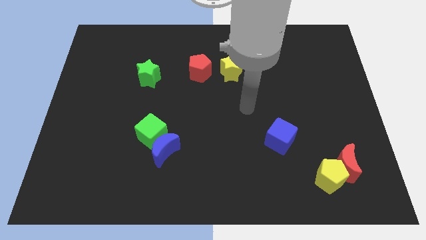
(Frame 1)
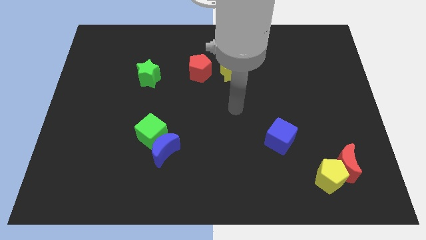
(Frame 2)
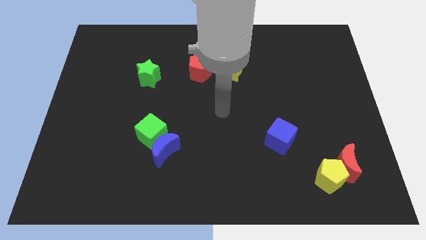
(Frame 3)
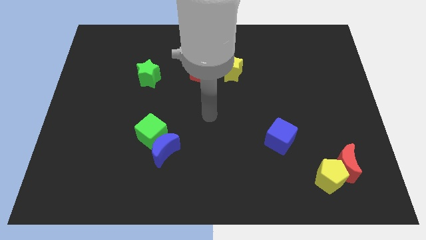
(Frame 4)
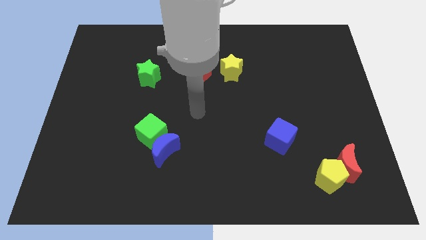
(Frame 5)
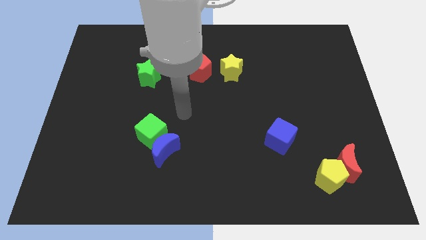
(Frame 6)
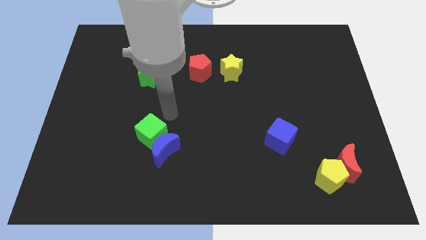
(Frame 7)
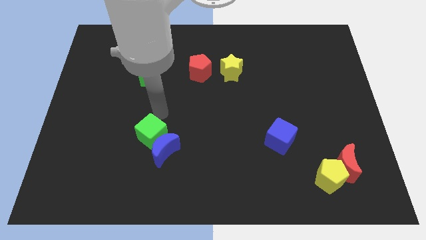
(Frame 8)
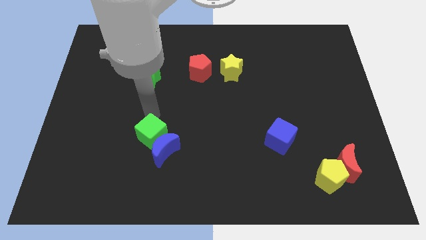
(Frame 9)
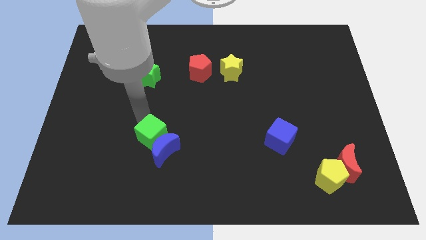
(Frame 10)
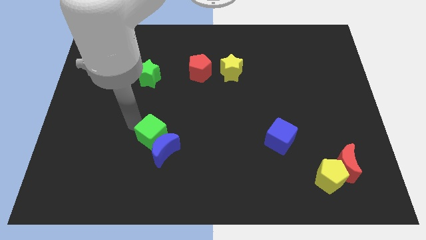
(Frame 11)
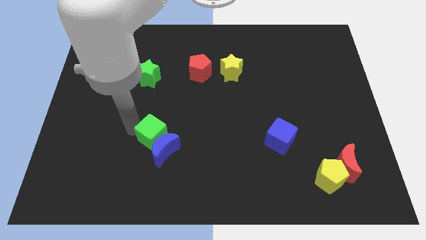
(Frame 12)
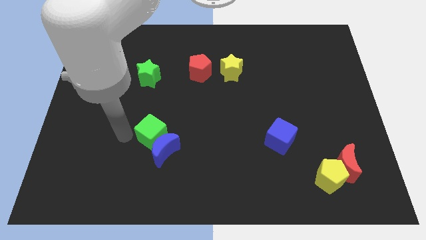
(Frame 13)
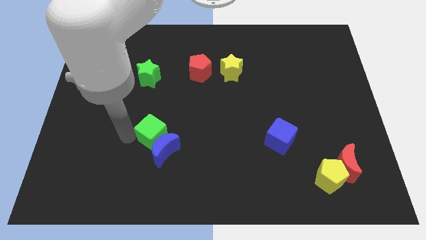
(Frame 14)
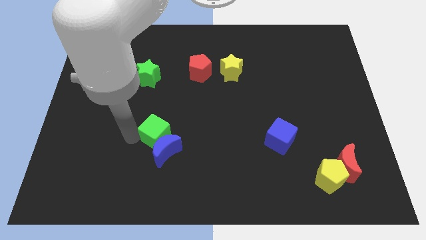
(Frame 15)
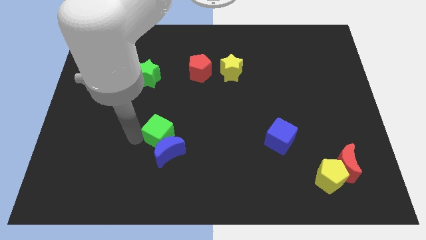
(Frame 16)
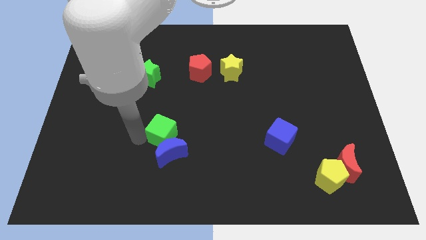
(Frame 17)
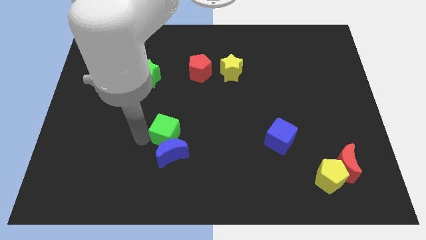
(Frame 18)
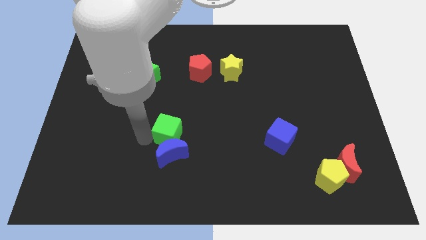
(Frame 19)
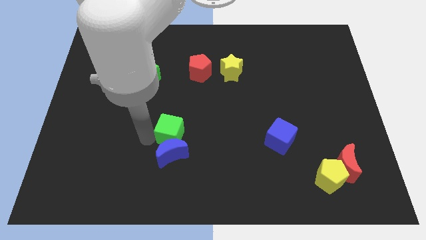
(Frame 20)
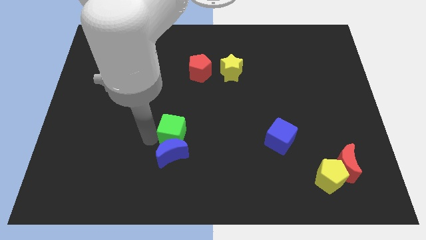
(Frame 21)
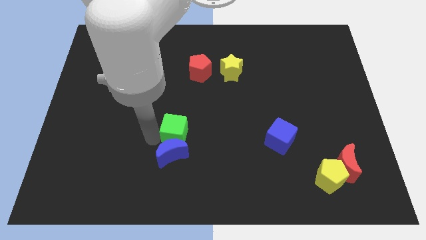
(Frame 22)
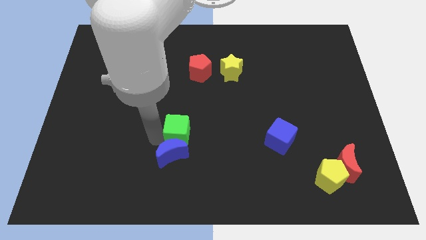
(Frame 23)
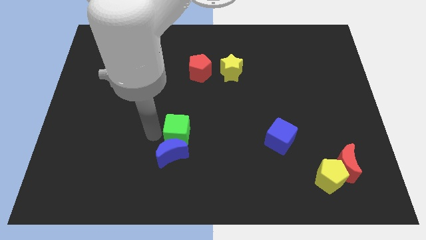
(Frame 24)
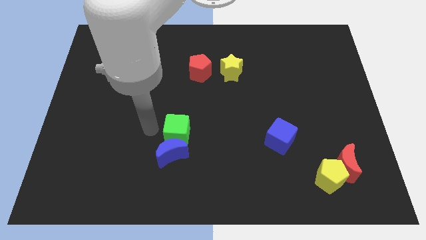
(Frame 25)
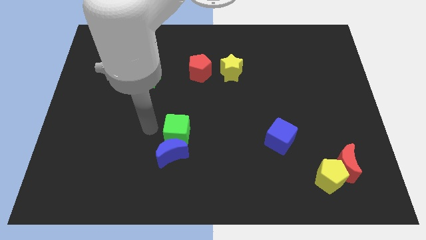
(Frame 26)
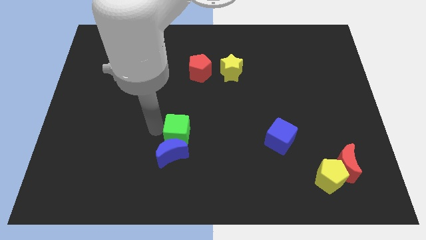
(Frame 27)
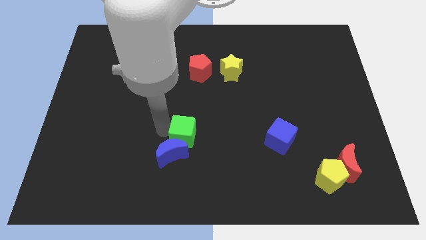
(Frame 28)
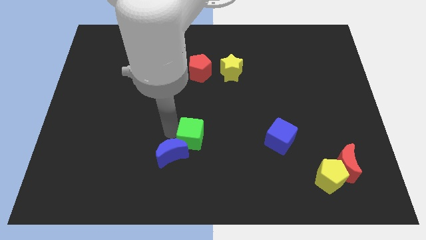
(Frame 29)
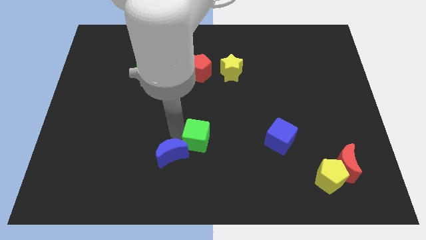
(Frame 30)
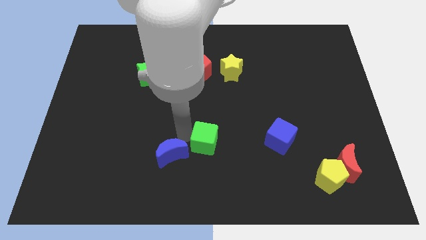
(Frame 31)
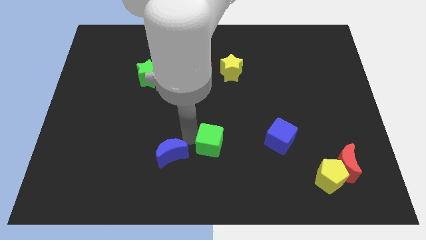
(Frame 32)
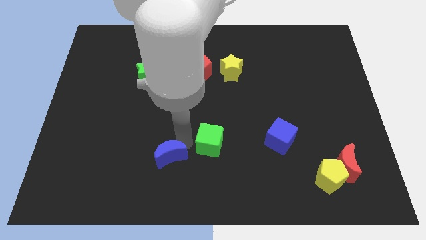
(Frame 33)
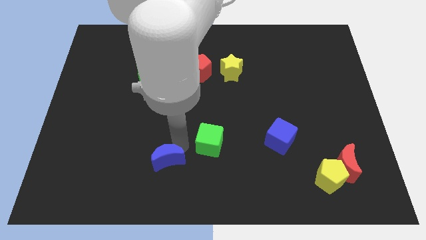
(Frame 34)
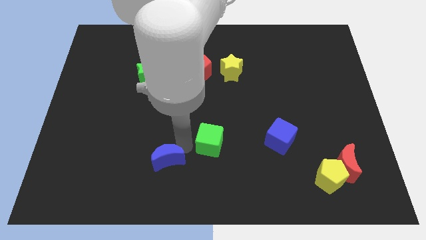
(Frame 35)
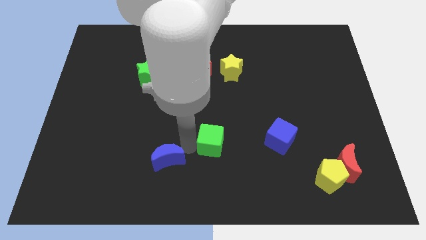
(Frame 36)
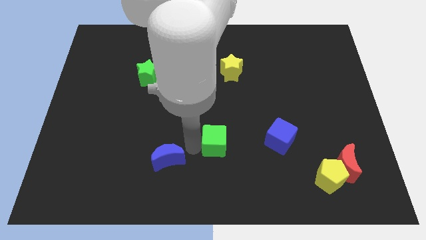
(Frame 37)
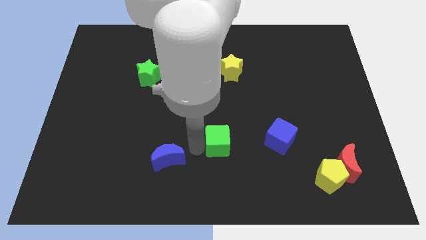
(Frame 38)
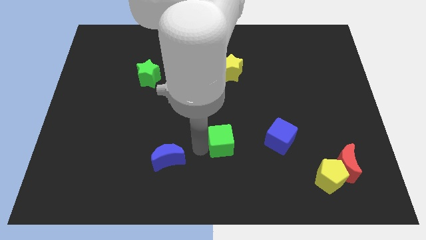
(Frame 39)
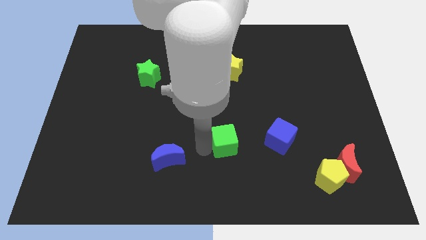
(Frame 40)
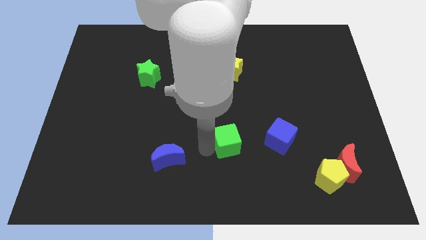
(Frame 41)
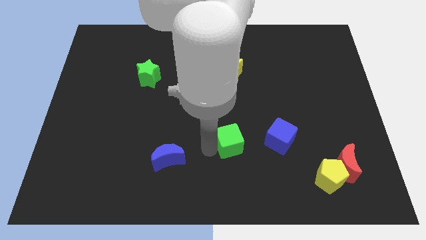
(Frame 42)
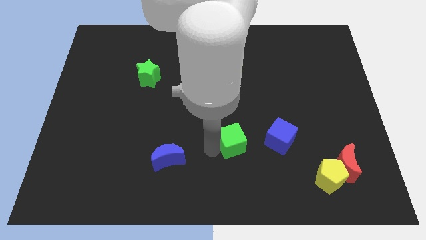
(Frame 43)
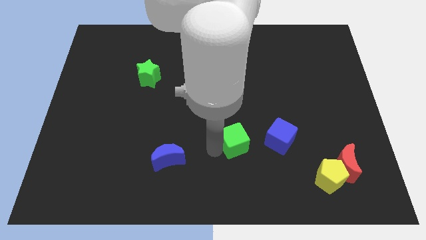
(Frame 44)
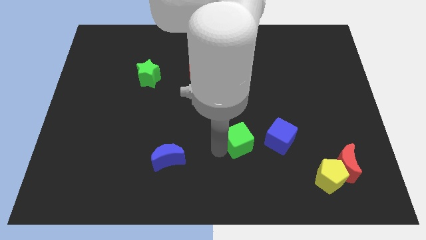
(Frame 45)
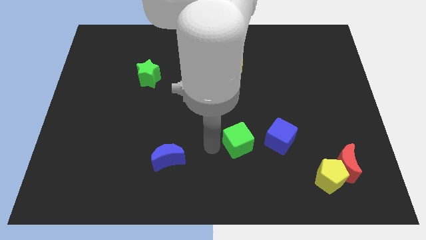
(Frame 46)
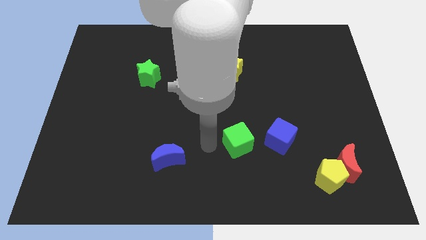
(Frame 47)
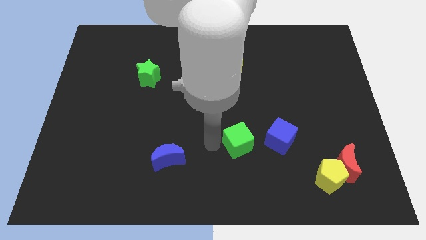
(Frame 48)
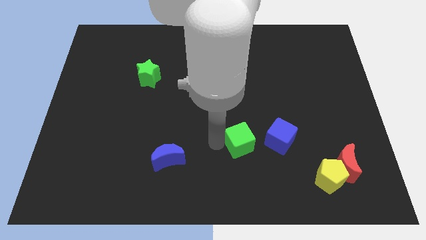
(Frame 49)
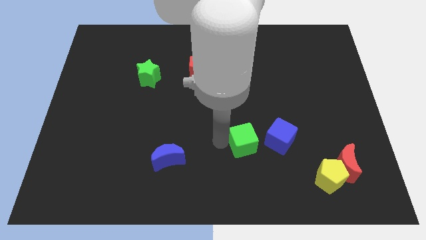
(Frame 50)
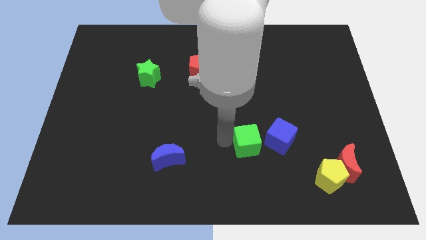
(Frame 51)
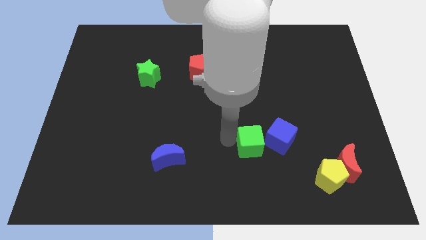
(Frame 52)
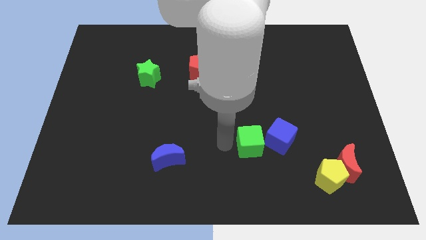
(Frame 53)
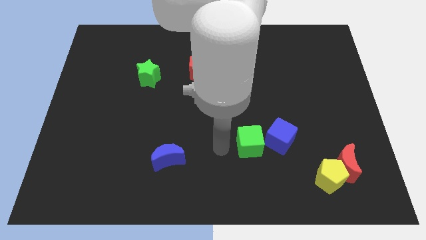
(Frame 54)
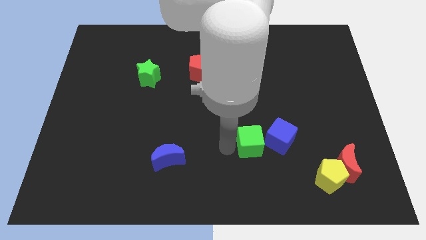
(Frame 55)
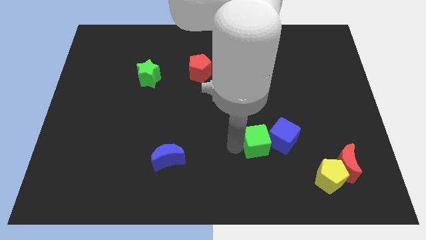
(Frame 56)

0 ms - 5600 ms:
put the green cube to the blue cube

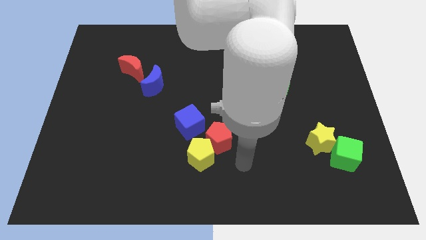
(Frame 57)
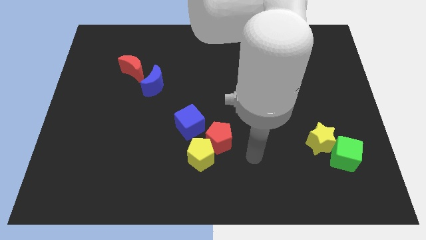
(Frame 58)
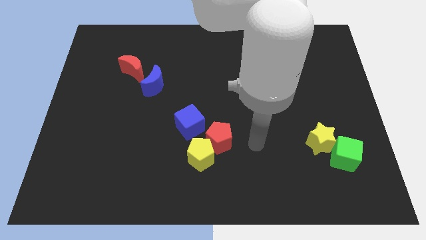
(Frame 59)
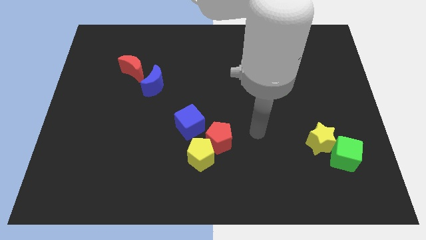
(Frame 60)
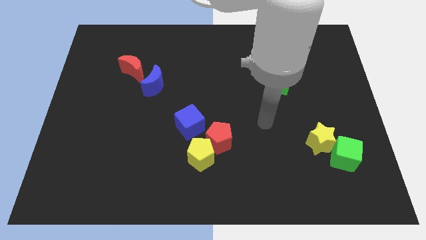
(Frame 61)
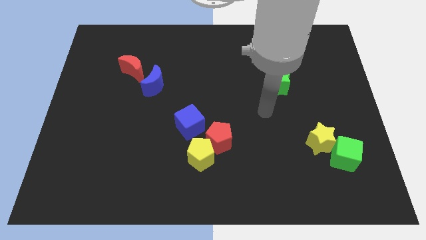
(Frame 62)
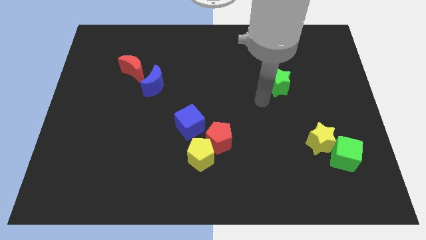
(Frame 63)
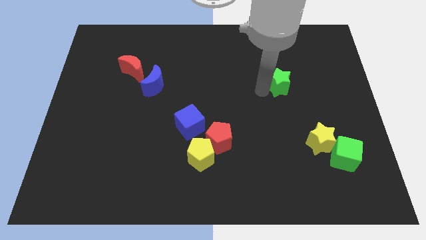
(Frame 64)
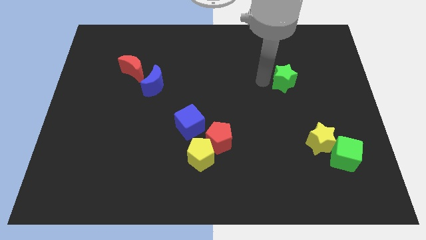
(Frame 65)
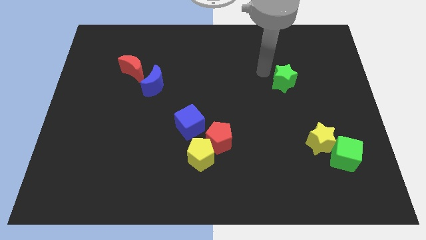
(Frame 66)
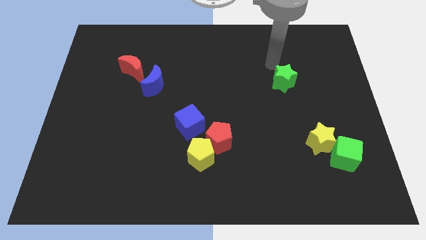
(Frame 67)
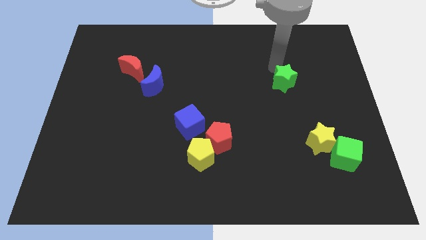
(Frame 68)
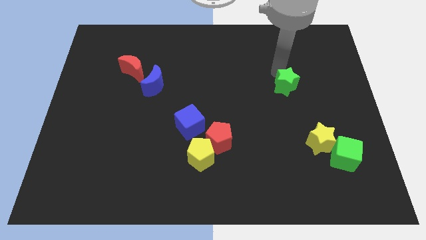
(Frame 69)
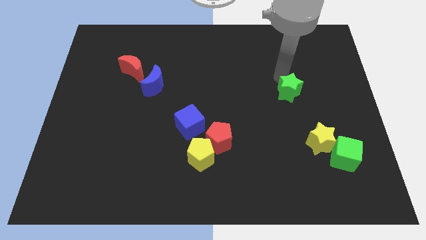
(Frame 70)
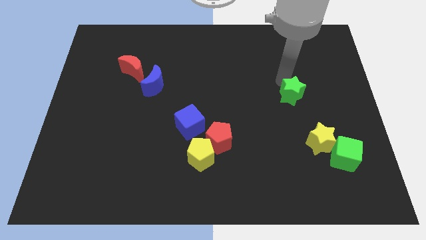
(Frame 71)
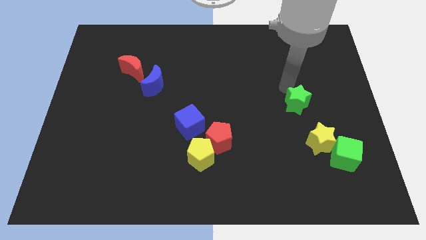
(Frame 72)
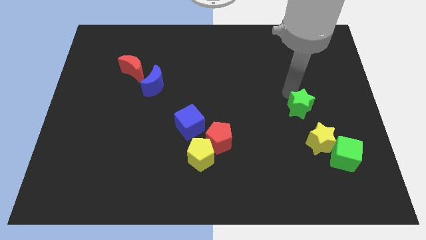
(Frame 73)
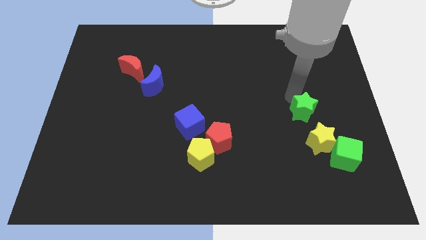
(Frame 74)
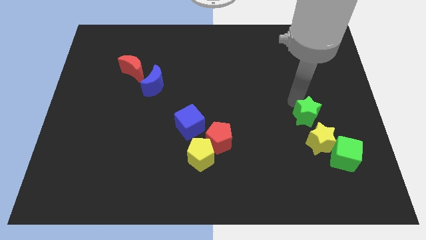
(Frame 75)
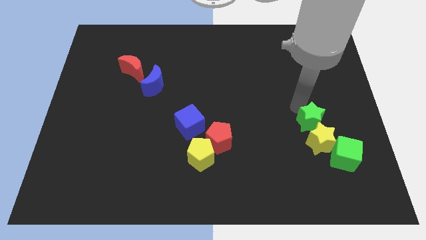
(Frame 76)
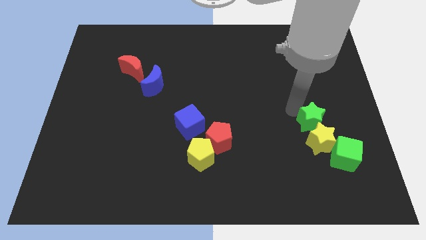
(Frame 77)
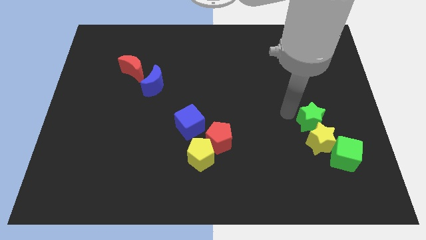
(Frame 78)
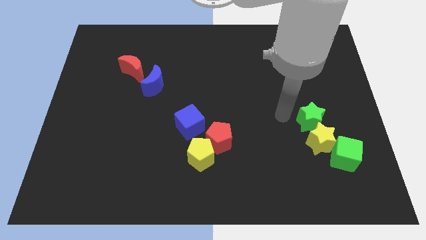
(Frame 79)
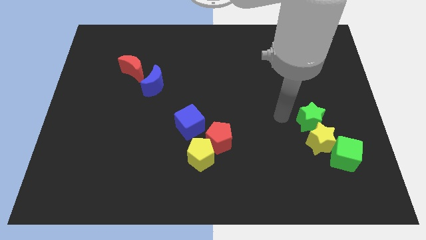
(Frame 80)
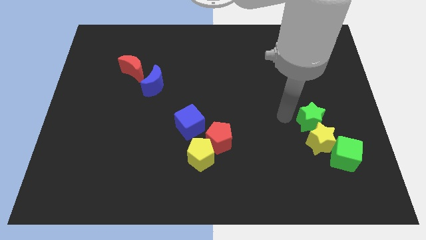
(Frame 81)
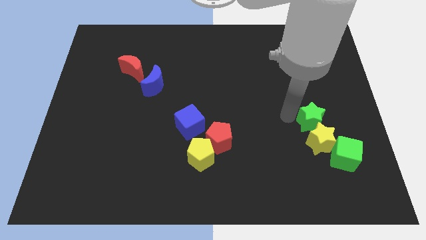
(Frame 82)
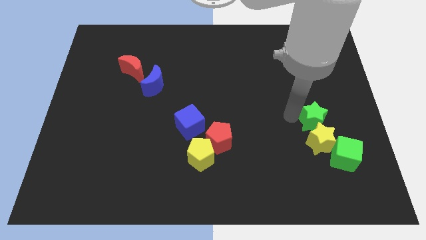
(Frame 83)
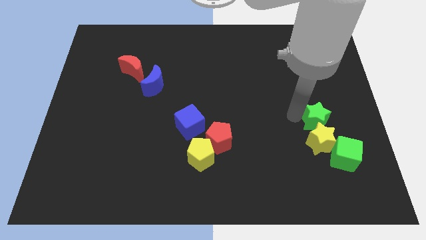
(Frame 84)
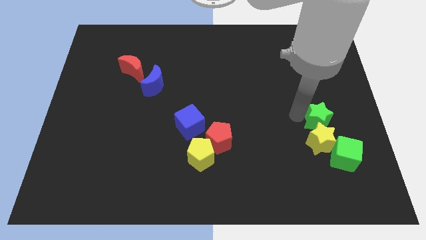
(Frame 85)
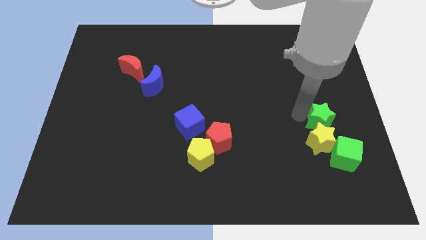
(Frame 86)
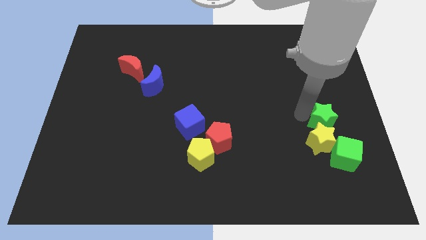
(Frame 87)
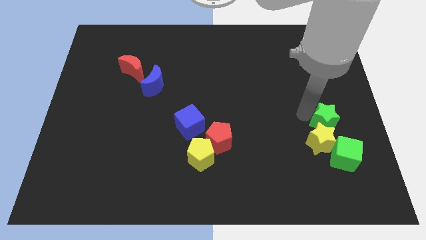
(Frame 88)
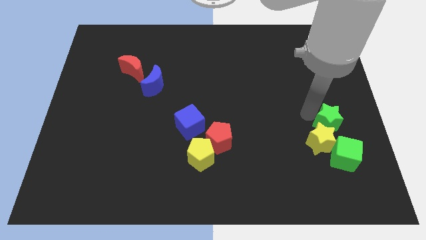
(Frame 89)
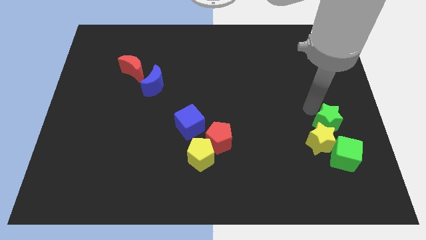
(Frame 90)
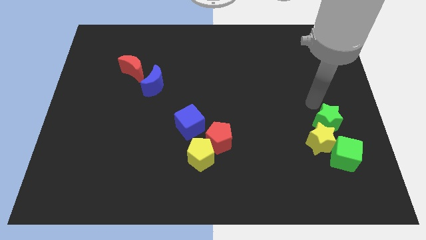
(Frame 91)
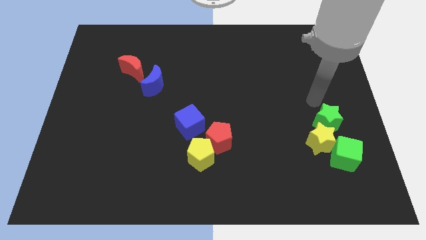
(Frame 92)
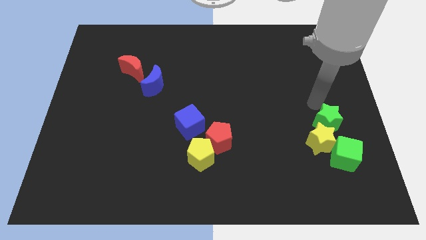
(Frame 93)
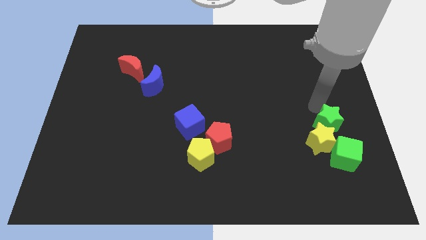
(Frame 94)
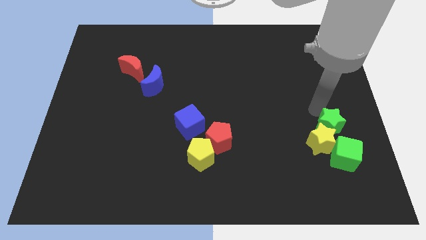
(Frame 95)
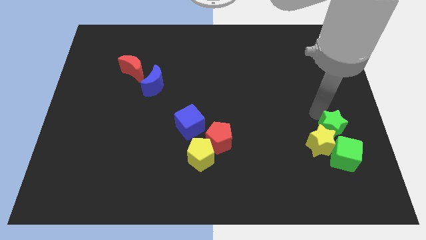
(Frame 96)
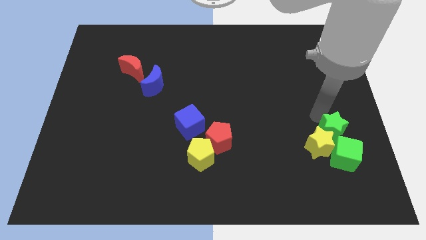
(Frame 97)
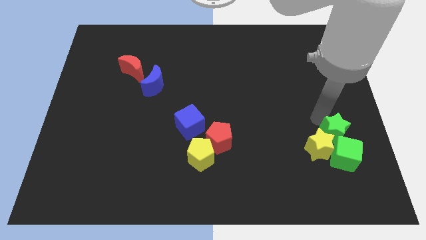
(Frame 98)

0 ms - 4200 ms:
push the green star close to the green cube
